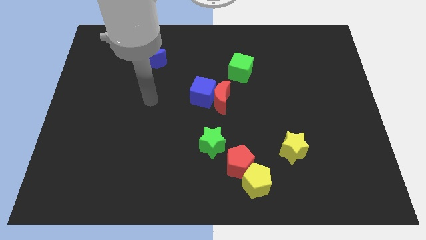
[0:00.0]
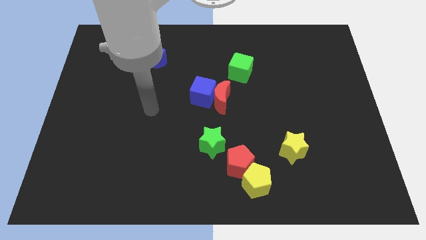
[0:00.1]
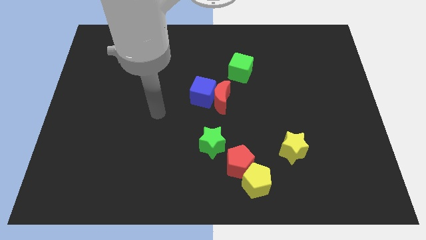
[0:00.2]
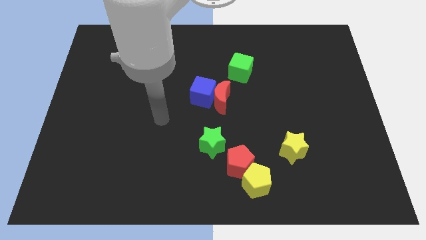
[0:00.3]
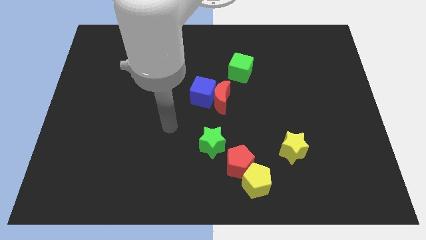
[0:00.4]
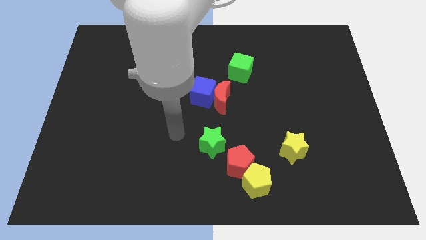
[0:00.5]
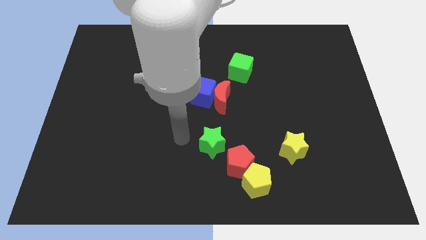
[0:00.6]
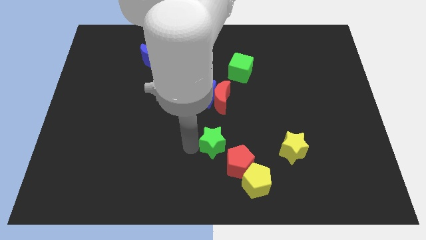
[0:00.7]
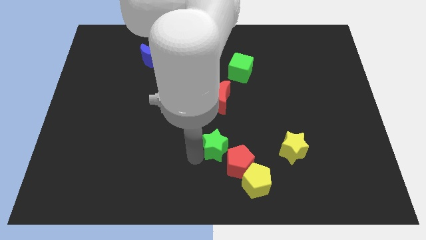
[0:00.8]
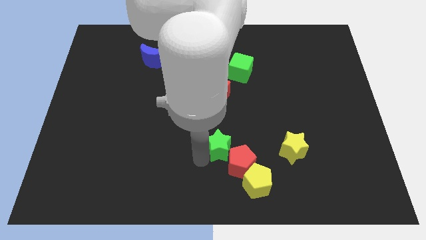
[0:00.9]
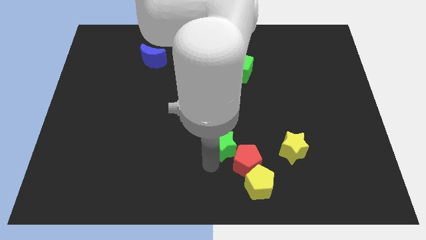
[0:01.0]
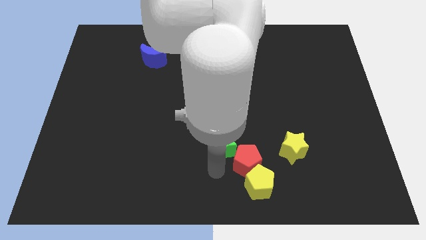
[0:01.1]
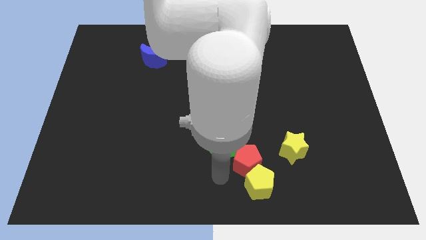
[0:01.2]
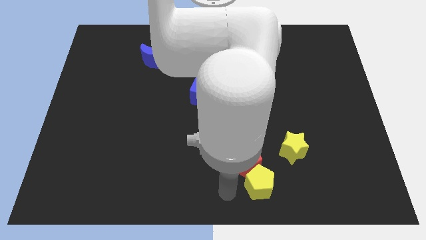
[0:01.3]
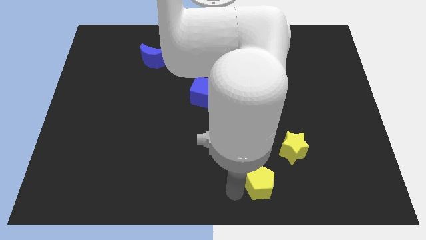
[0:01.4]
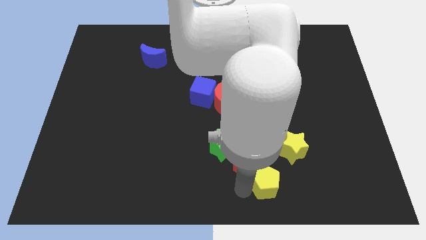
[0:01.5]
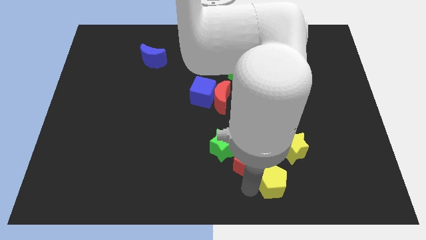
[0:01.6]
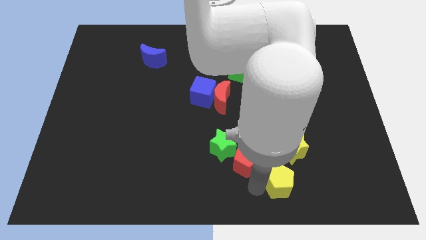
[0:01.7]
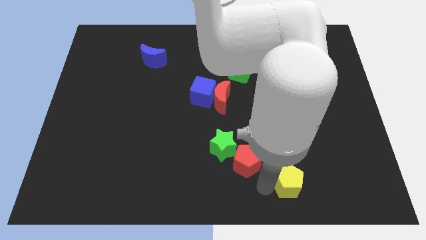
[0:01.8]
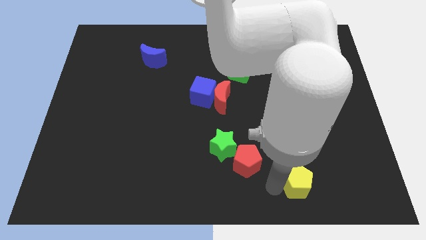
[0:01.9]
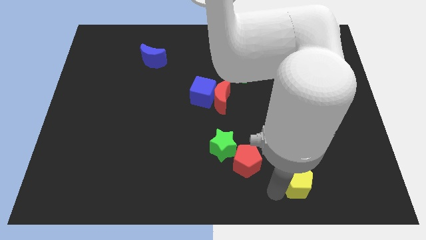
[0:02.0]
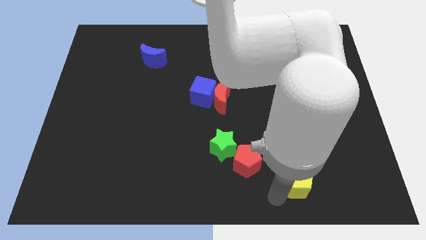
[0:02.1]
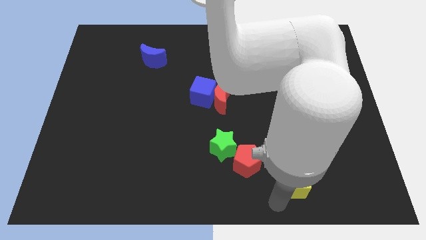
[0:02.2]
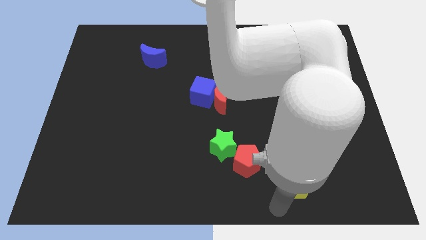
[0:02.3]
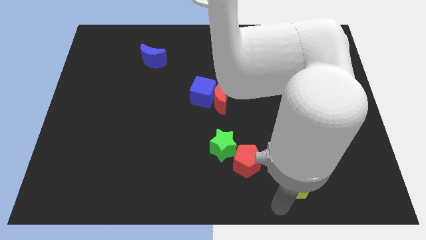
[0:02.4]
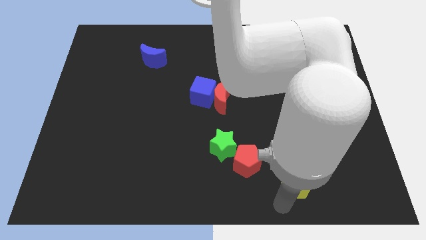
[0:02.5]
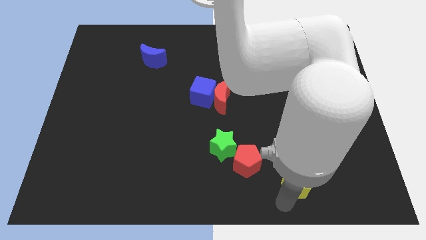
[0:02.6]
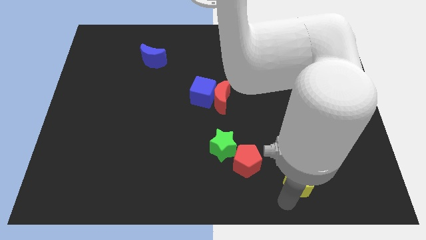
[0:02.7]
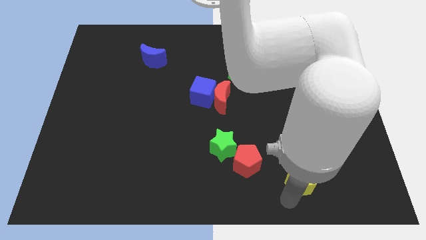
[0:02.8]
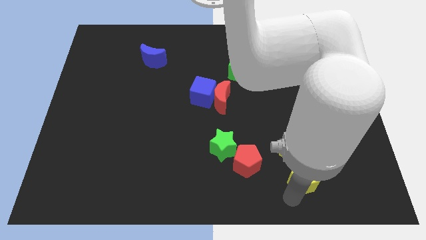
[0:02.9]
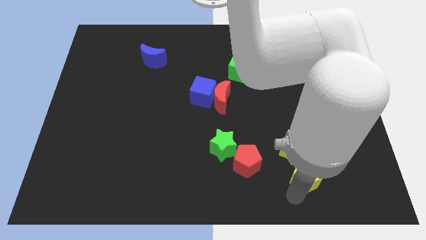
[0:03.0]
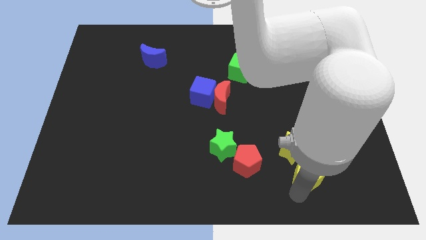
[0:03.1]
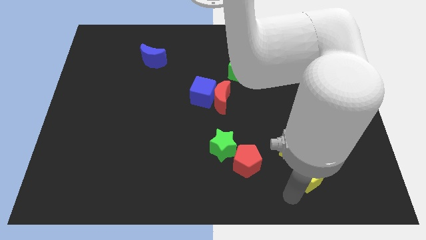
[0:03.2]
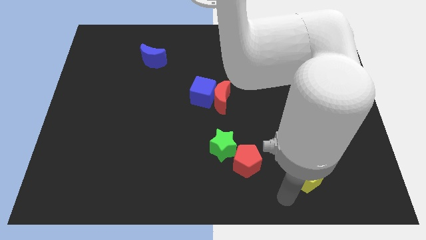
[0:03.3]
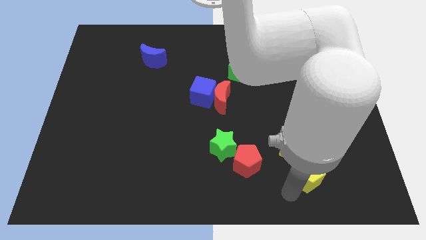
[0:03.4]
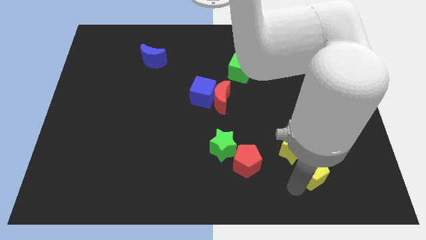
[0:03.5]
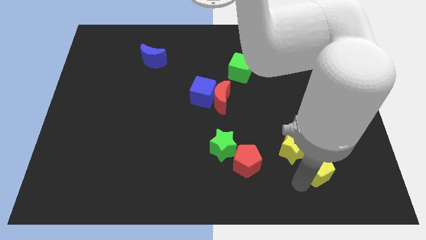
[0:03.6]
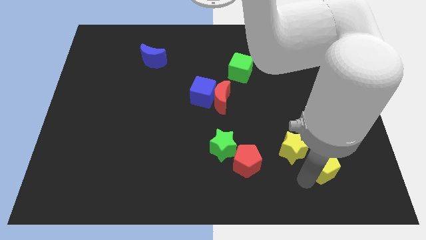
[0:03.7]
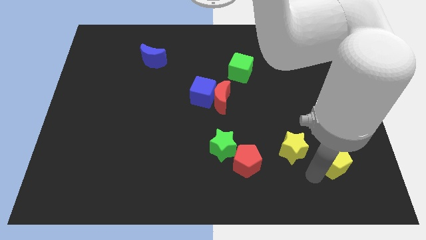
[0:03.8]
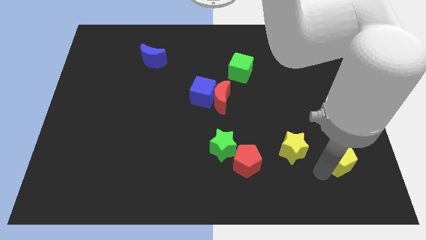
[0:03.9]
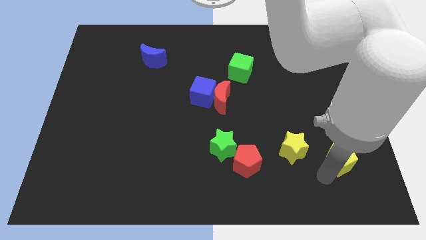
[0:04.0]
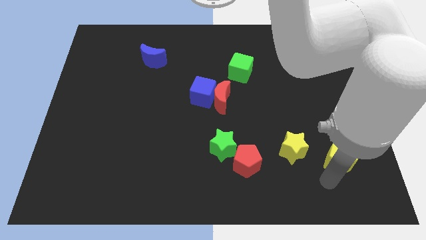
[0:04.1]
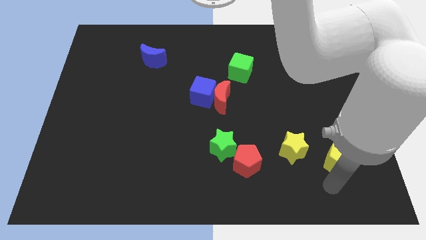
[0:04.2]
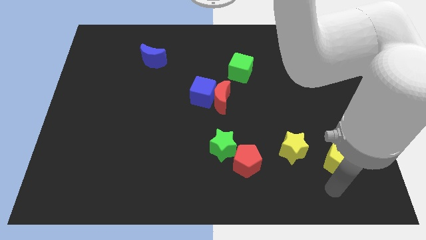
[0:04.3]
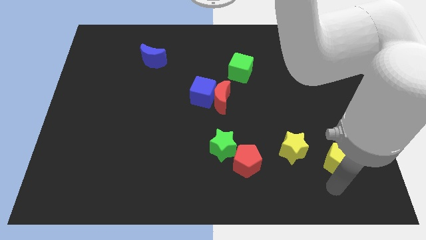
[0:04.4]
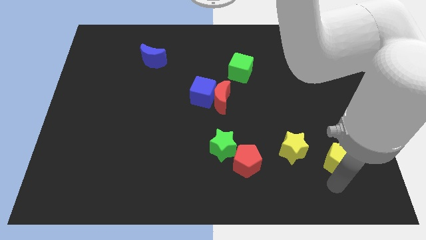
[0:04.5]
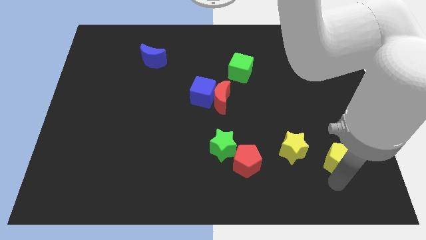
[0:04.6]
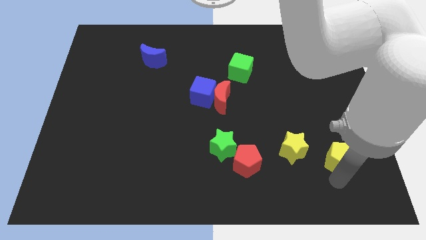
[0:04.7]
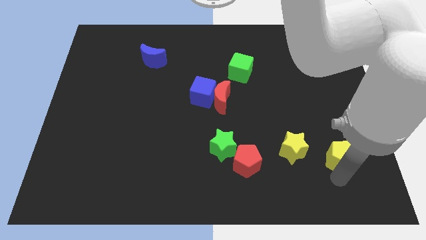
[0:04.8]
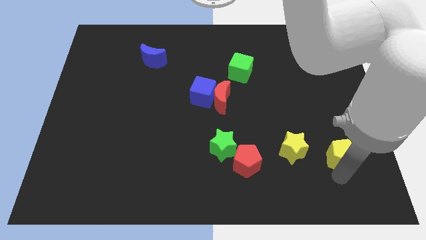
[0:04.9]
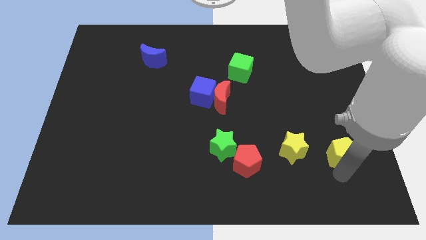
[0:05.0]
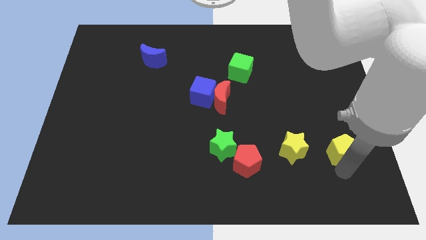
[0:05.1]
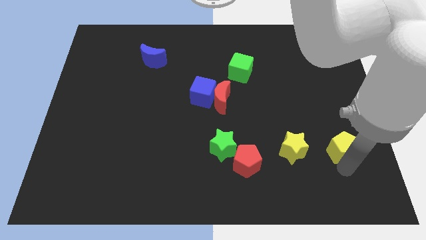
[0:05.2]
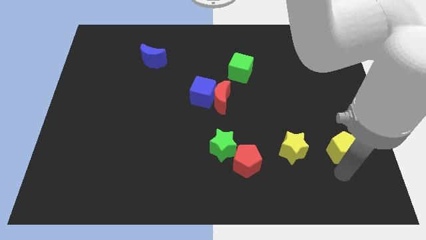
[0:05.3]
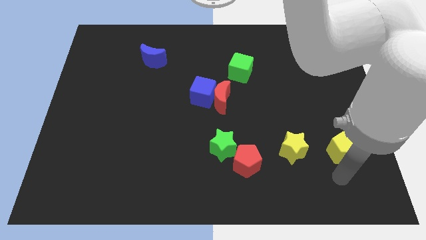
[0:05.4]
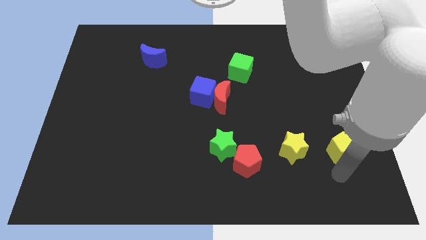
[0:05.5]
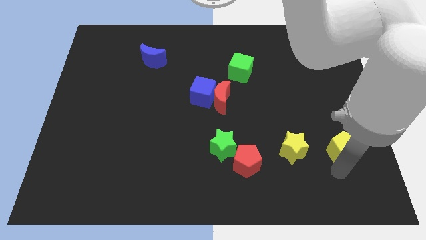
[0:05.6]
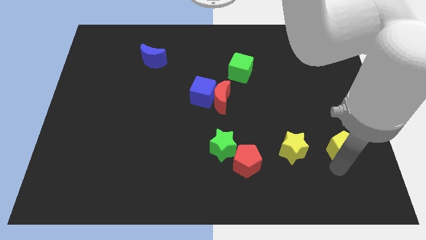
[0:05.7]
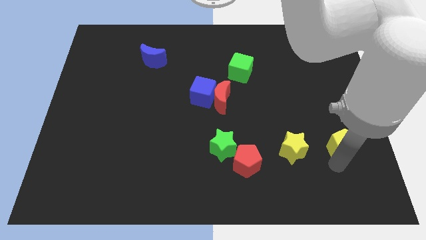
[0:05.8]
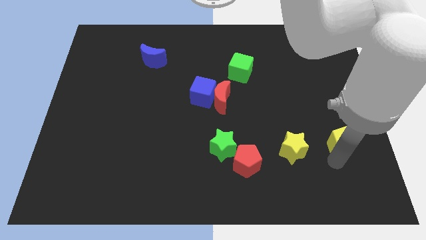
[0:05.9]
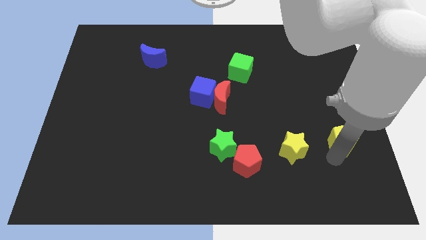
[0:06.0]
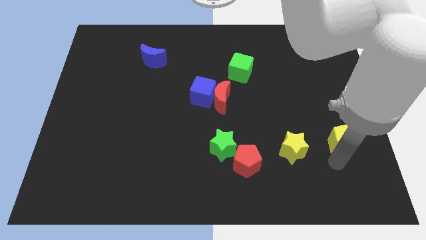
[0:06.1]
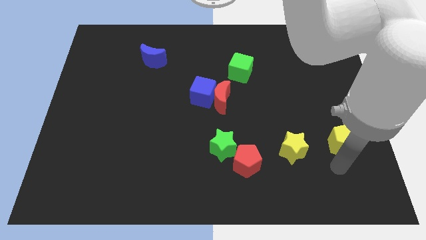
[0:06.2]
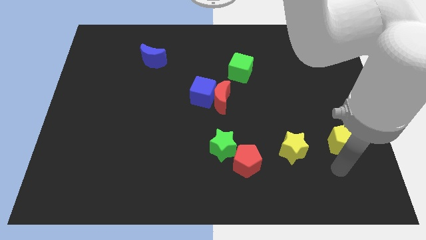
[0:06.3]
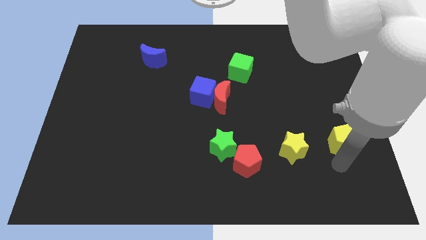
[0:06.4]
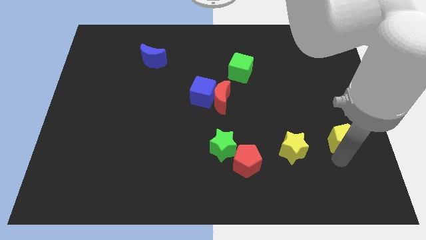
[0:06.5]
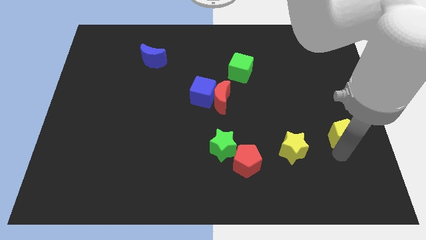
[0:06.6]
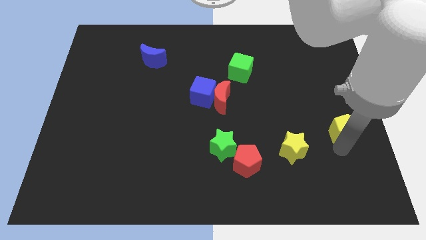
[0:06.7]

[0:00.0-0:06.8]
put the yellow pentagon to the right side of the board
